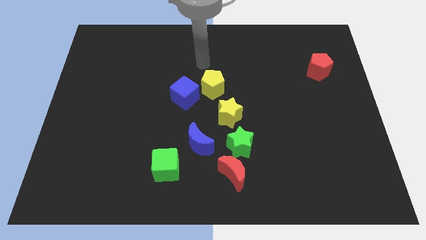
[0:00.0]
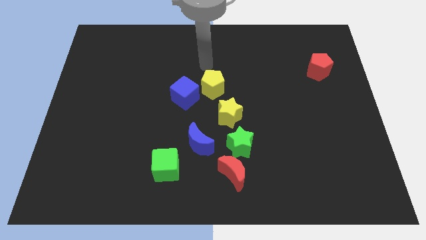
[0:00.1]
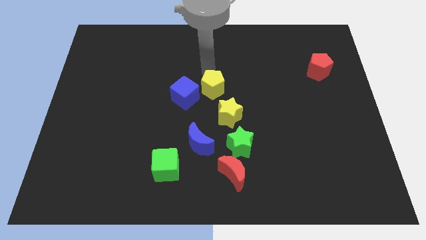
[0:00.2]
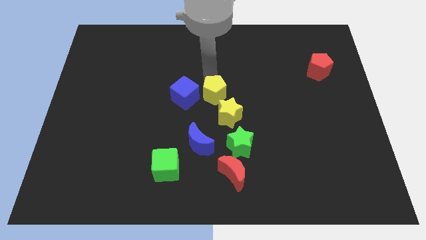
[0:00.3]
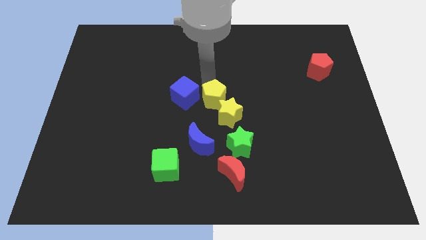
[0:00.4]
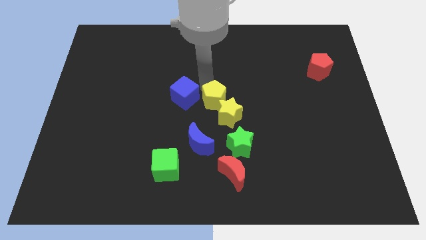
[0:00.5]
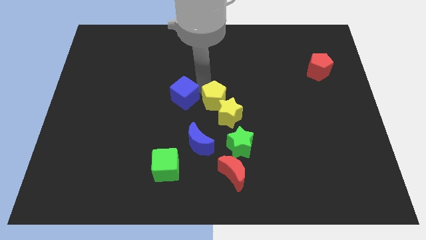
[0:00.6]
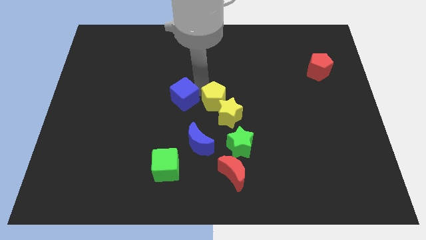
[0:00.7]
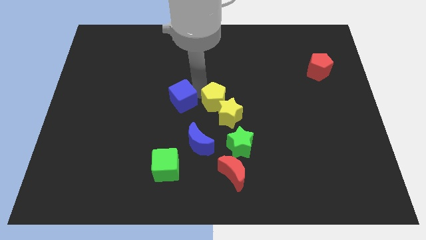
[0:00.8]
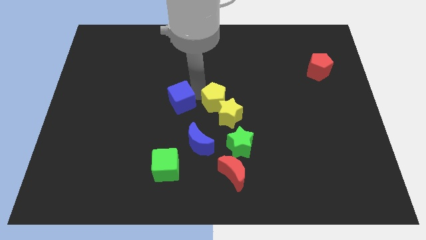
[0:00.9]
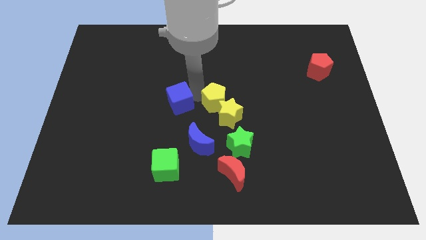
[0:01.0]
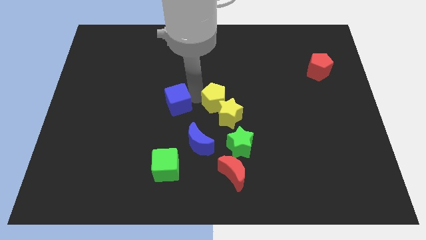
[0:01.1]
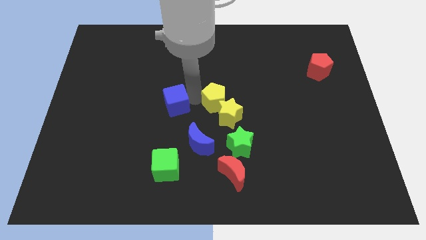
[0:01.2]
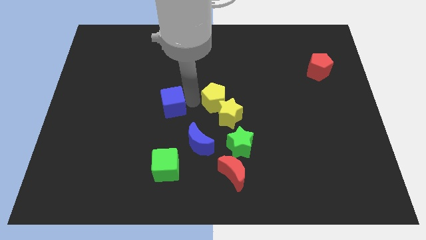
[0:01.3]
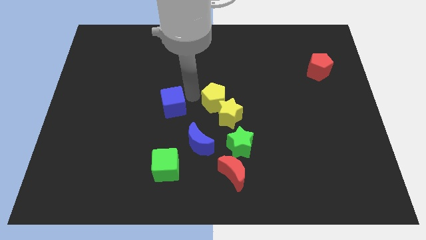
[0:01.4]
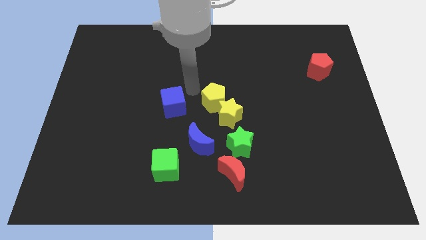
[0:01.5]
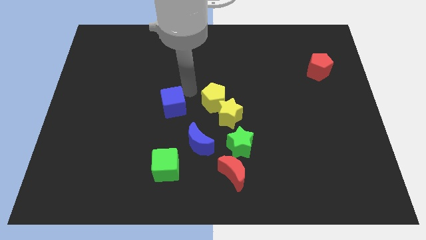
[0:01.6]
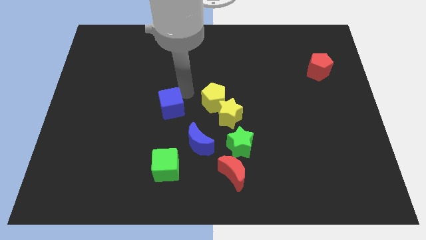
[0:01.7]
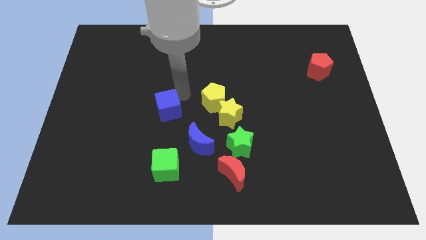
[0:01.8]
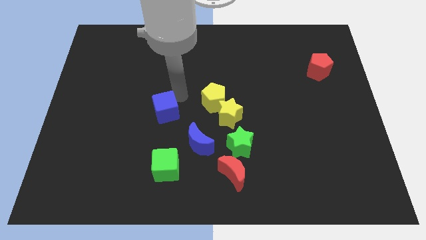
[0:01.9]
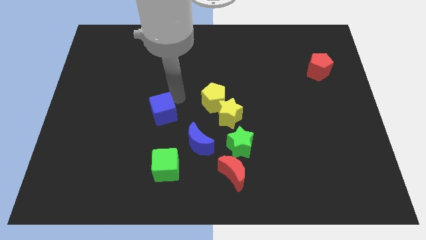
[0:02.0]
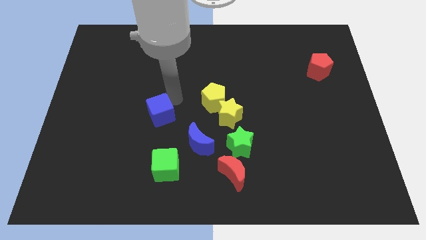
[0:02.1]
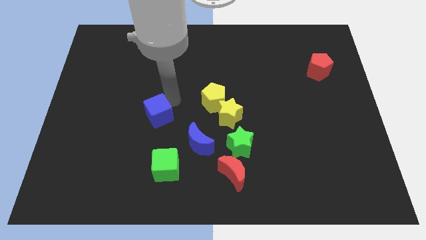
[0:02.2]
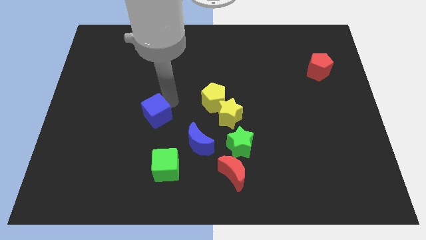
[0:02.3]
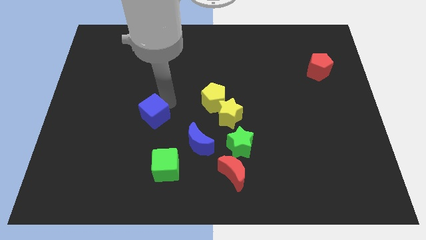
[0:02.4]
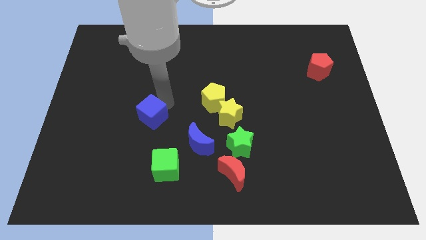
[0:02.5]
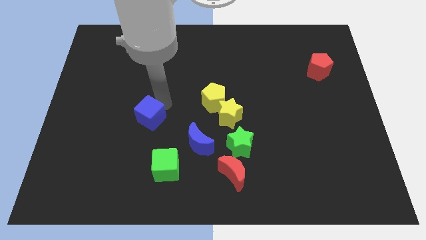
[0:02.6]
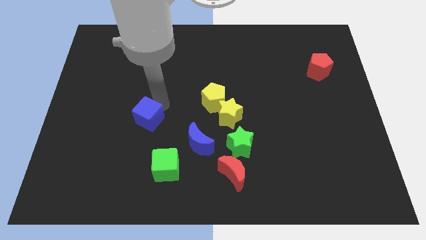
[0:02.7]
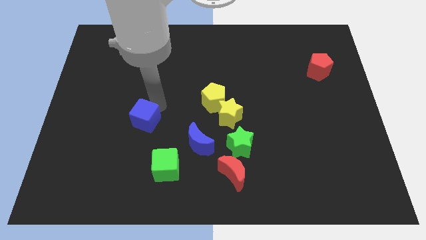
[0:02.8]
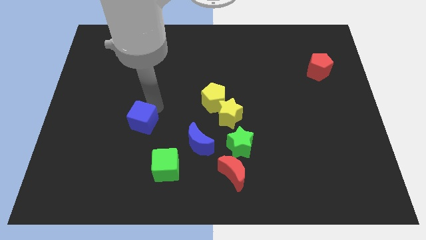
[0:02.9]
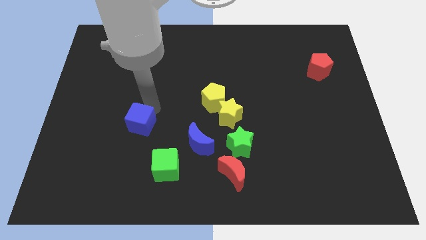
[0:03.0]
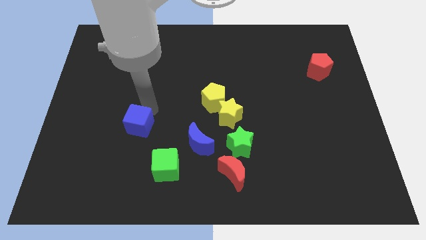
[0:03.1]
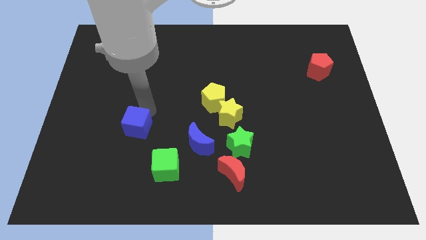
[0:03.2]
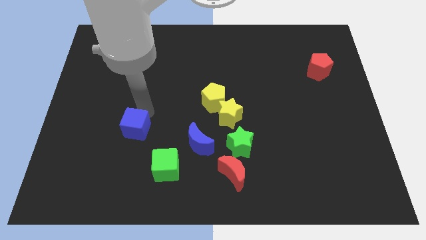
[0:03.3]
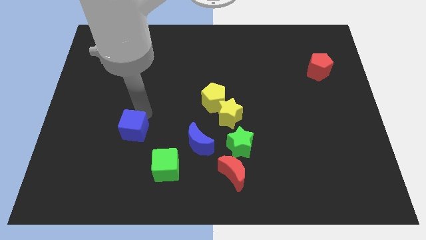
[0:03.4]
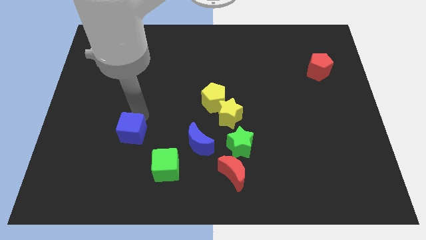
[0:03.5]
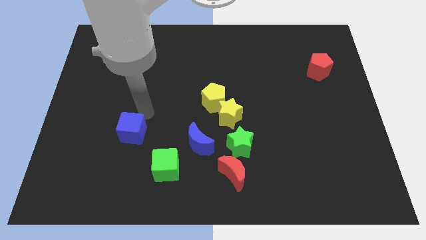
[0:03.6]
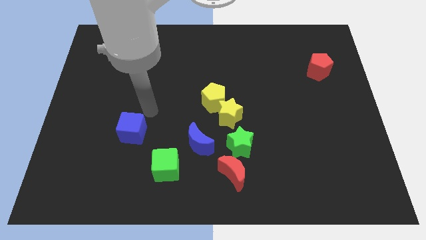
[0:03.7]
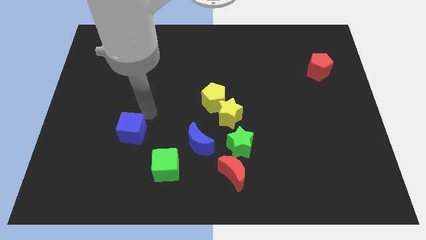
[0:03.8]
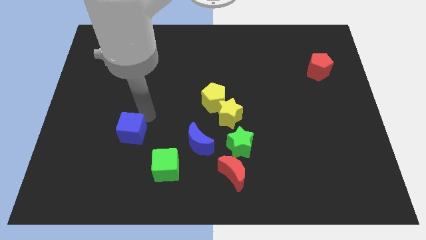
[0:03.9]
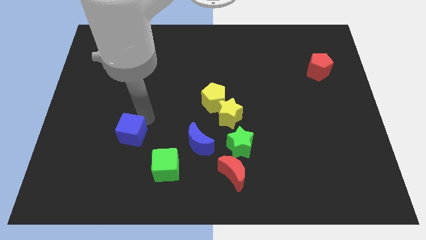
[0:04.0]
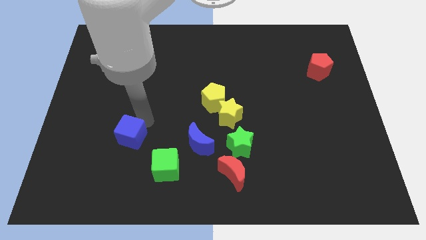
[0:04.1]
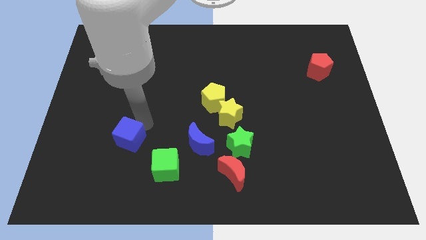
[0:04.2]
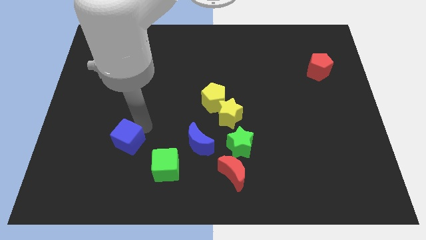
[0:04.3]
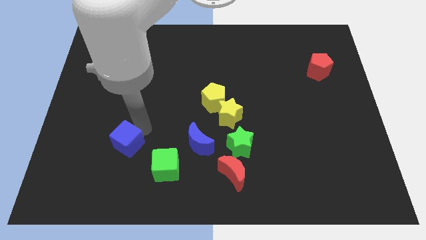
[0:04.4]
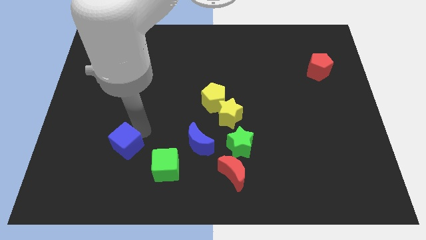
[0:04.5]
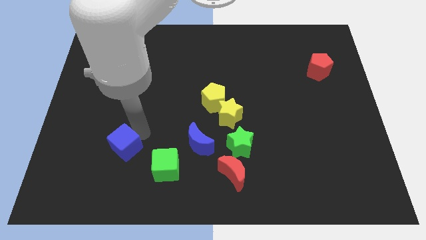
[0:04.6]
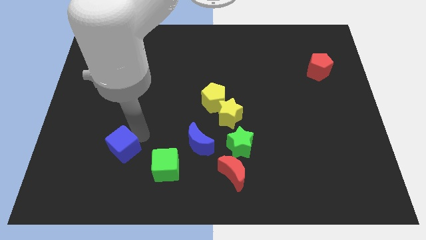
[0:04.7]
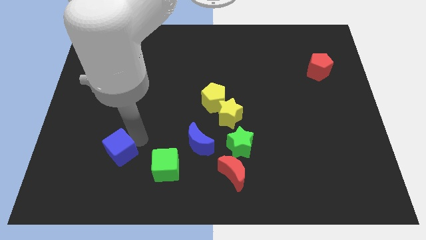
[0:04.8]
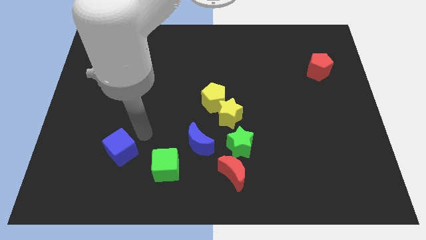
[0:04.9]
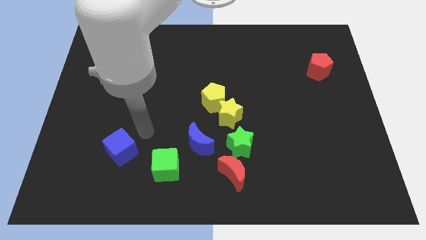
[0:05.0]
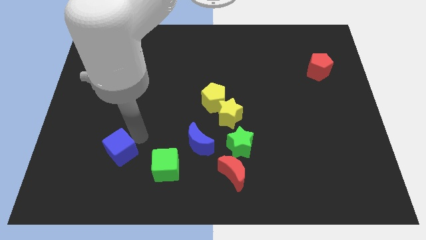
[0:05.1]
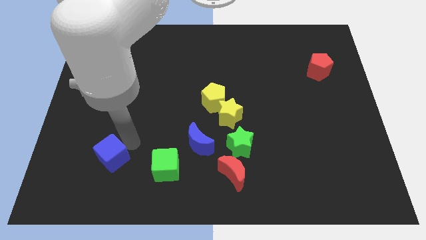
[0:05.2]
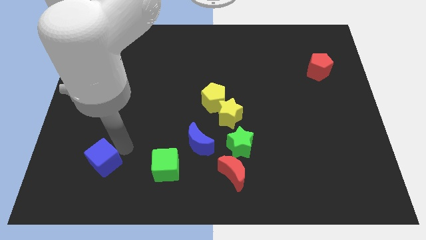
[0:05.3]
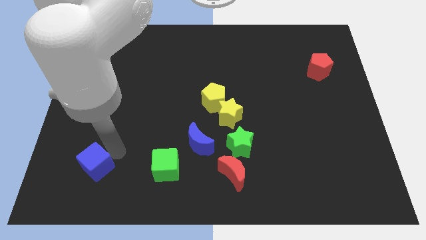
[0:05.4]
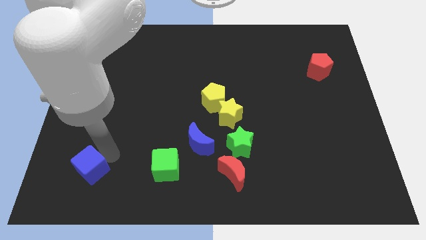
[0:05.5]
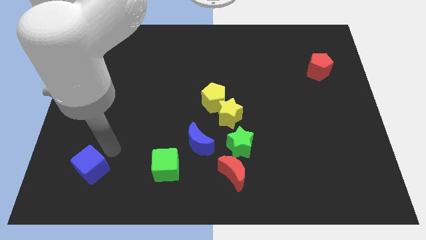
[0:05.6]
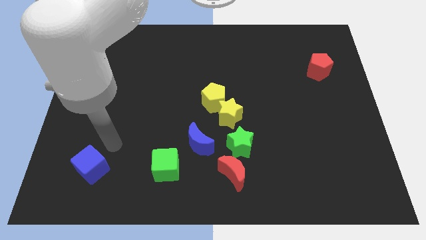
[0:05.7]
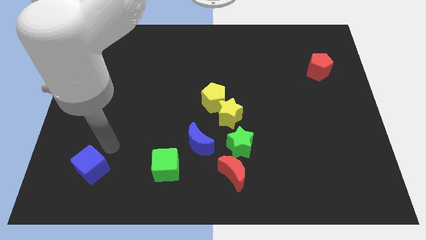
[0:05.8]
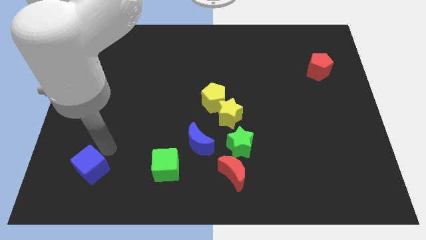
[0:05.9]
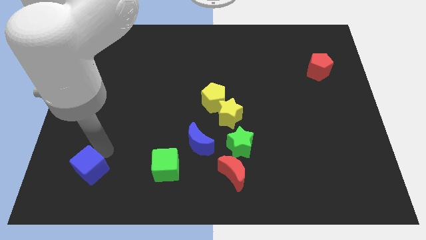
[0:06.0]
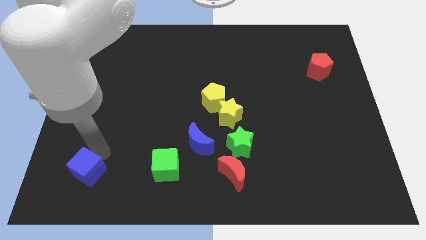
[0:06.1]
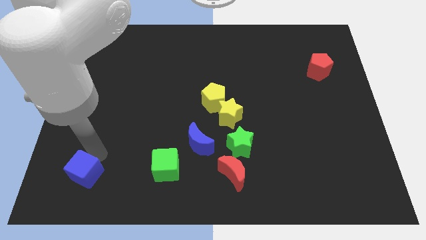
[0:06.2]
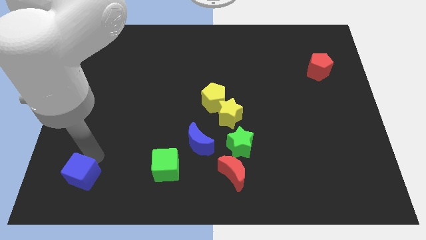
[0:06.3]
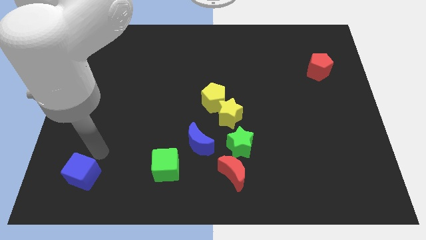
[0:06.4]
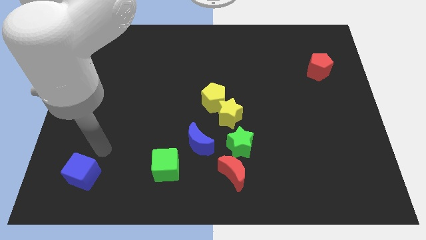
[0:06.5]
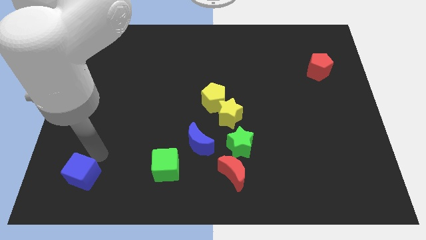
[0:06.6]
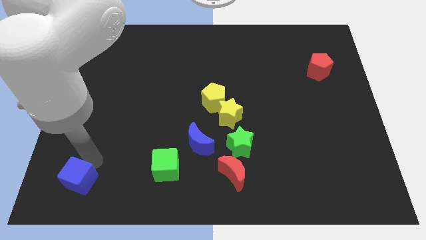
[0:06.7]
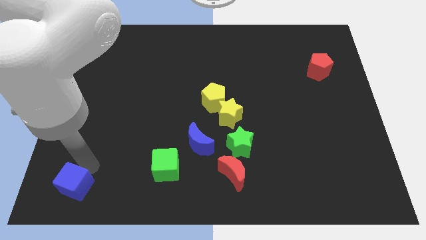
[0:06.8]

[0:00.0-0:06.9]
move the blue cube to the bottom left corner
